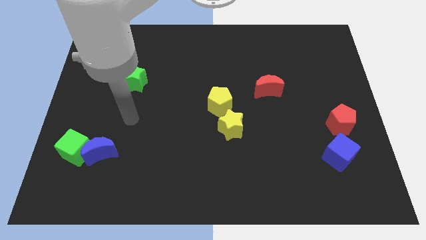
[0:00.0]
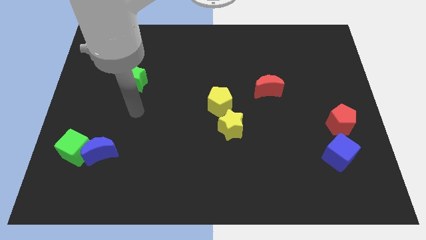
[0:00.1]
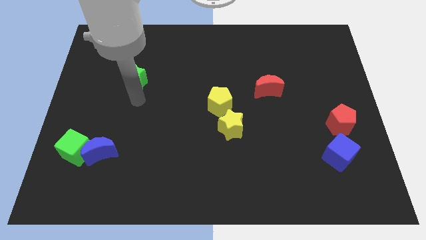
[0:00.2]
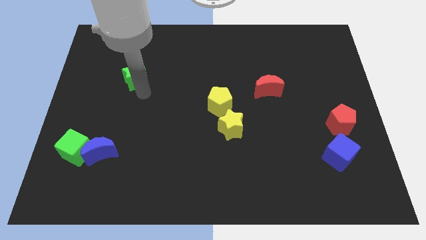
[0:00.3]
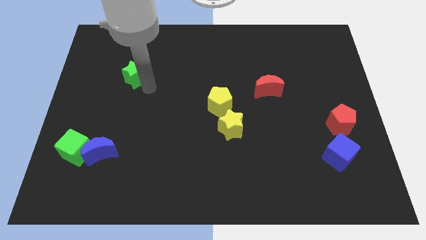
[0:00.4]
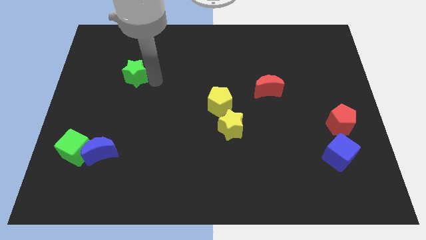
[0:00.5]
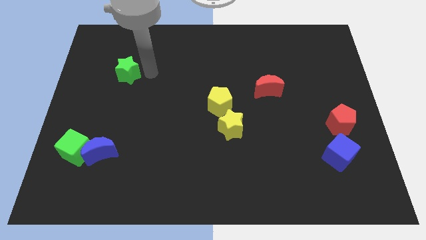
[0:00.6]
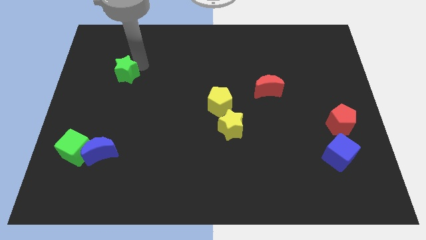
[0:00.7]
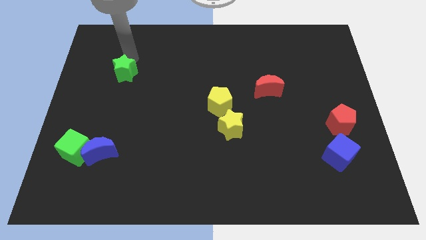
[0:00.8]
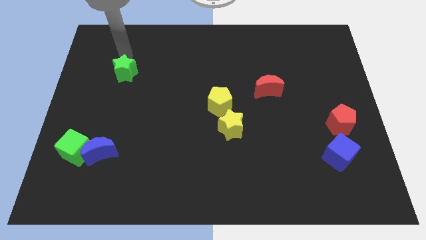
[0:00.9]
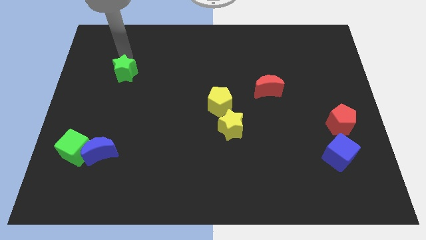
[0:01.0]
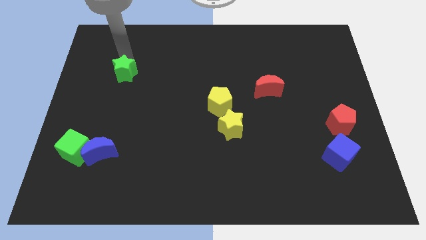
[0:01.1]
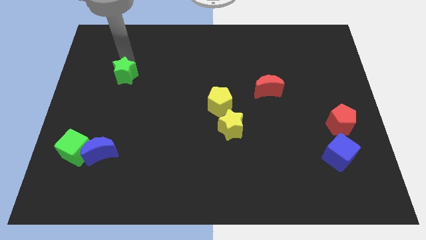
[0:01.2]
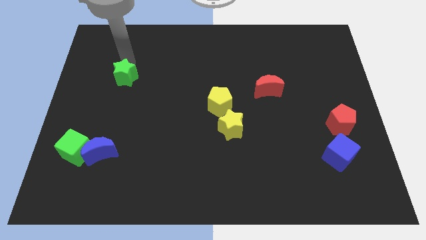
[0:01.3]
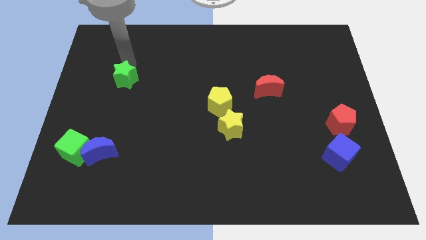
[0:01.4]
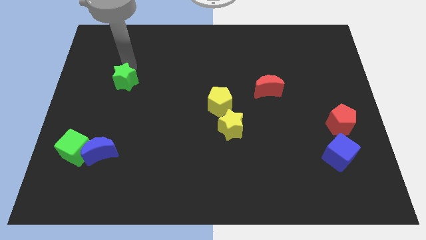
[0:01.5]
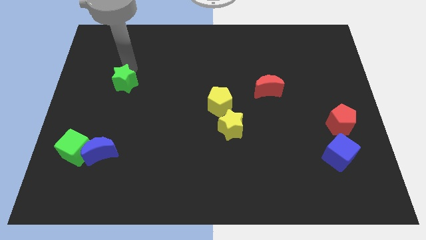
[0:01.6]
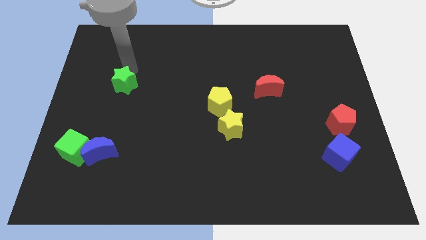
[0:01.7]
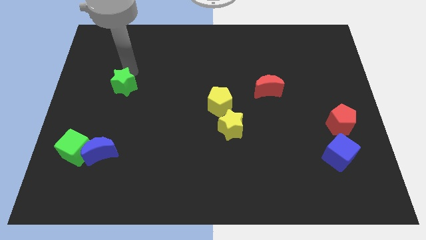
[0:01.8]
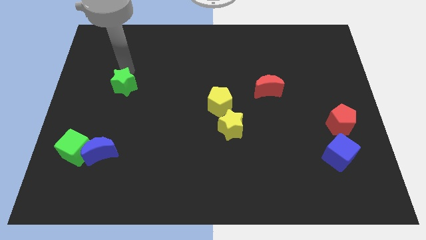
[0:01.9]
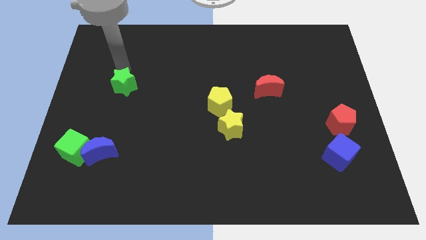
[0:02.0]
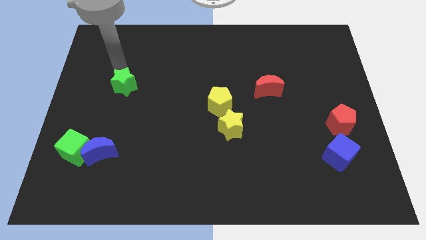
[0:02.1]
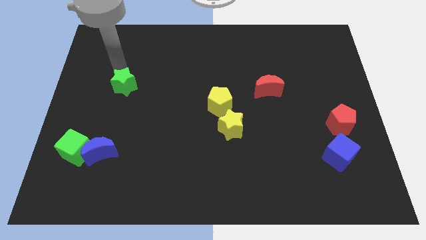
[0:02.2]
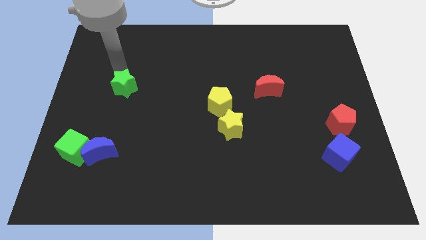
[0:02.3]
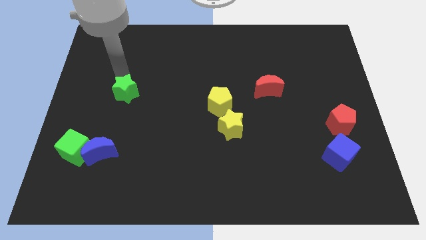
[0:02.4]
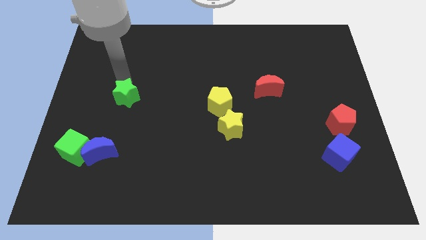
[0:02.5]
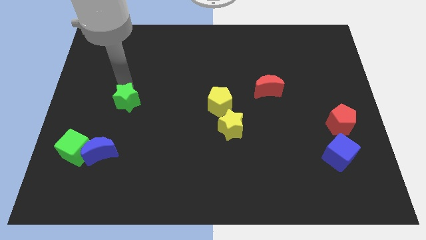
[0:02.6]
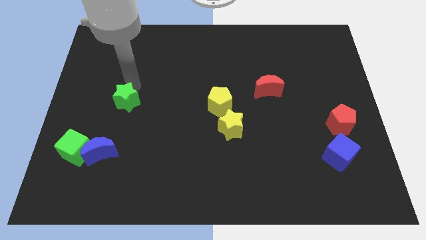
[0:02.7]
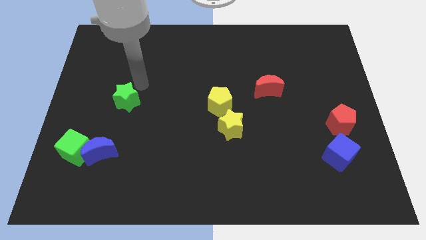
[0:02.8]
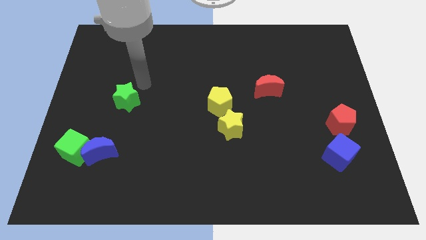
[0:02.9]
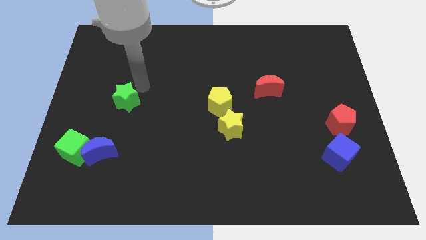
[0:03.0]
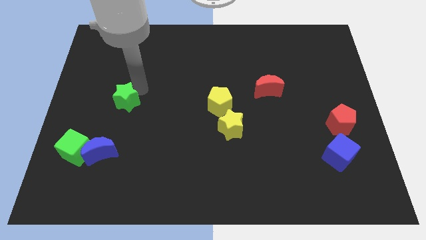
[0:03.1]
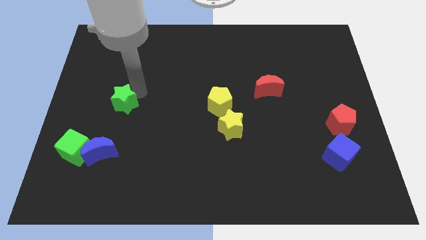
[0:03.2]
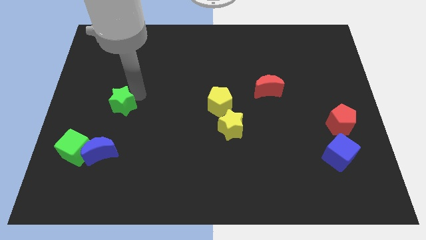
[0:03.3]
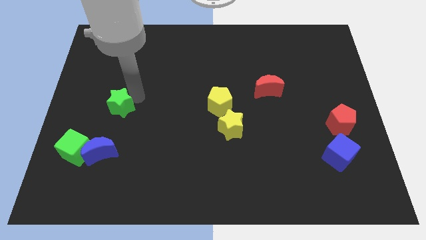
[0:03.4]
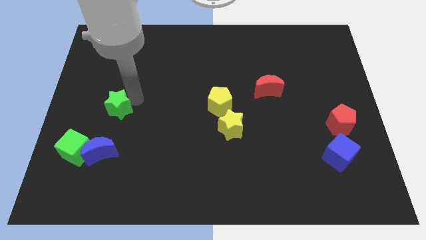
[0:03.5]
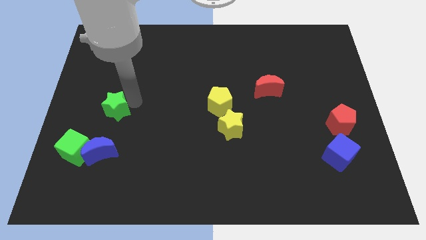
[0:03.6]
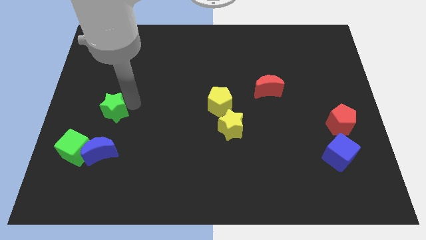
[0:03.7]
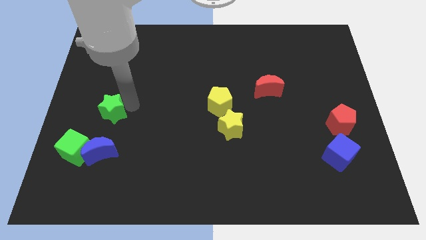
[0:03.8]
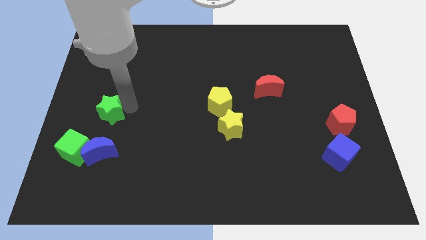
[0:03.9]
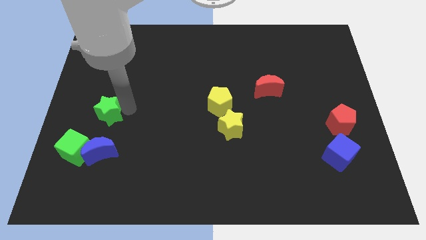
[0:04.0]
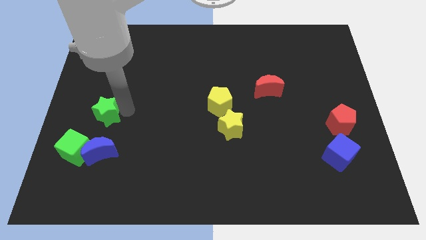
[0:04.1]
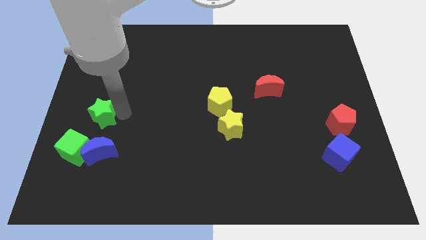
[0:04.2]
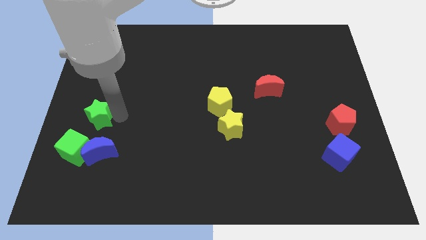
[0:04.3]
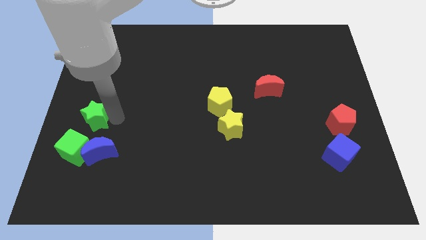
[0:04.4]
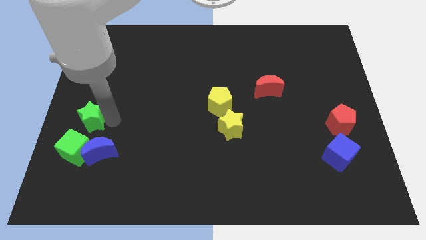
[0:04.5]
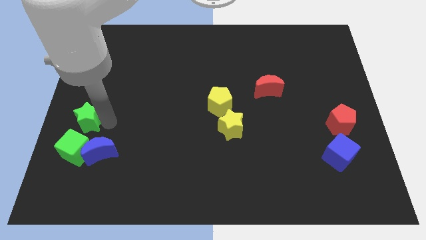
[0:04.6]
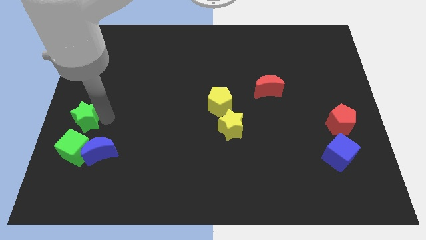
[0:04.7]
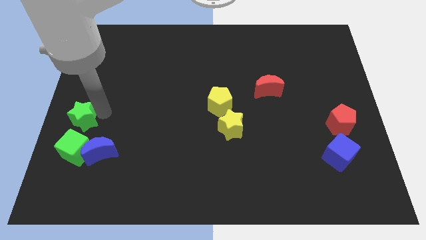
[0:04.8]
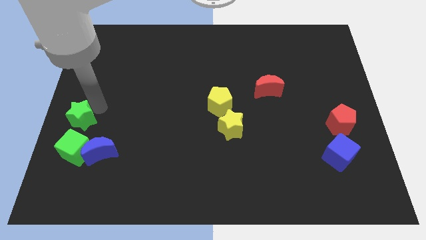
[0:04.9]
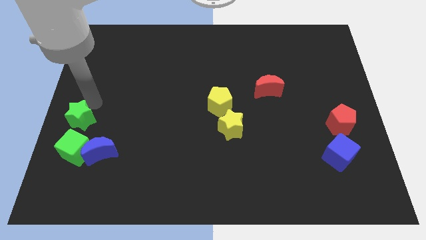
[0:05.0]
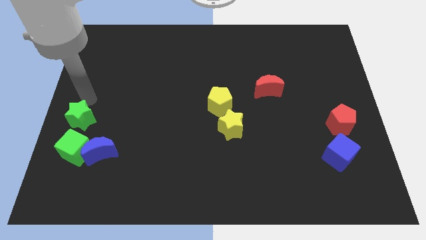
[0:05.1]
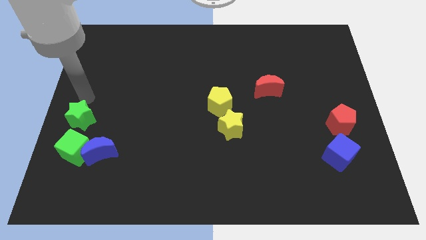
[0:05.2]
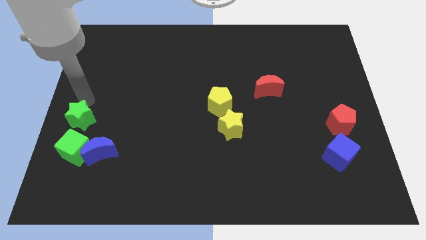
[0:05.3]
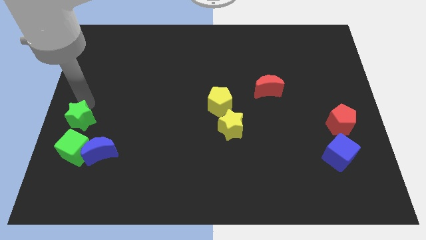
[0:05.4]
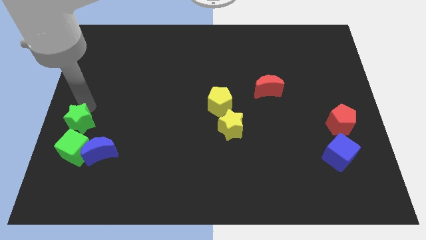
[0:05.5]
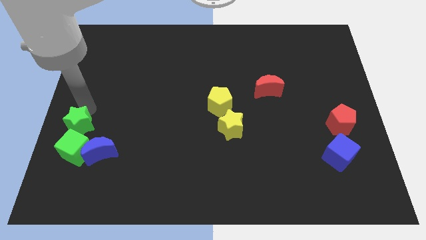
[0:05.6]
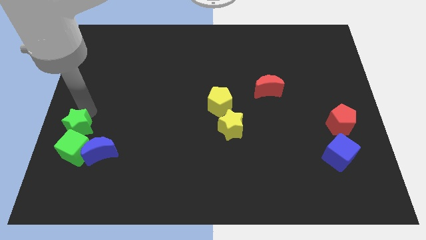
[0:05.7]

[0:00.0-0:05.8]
put the green star to the green cube

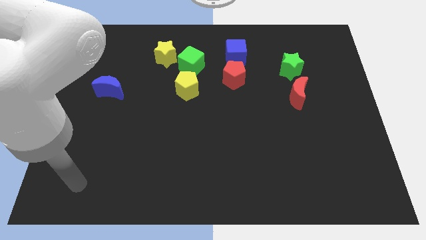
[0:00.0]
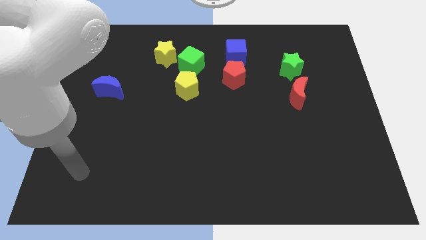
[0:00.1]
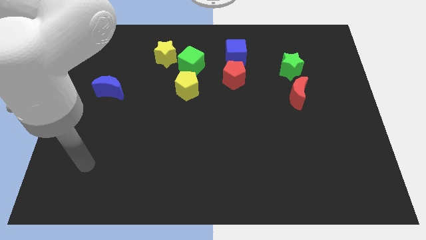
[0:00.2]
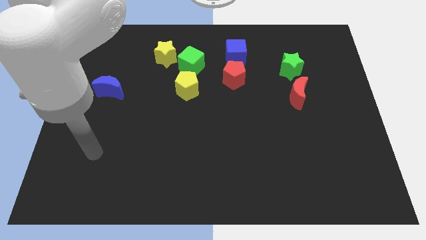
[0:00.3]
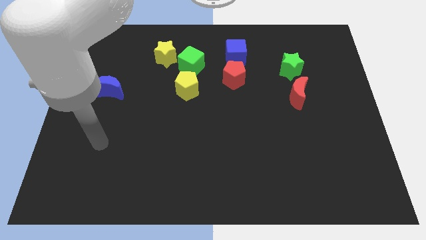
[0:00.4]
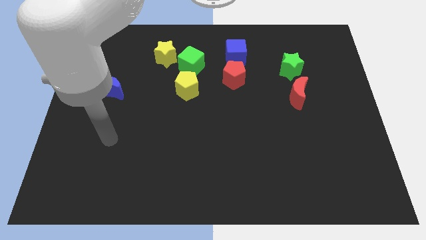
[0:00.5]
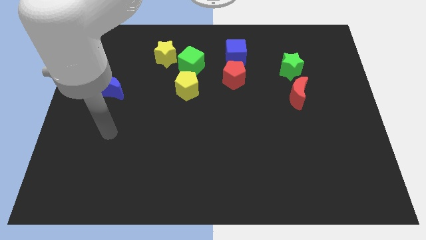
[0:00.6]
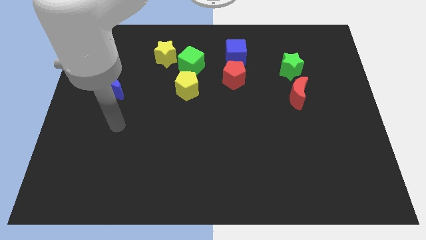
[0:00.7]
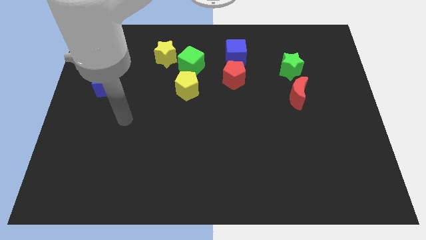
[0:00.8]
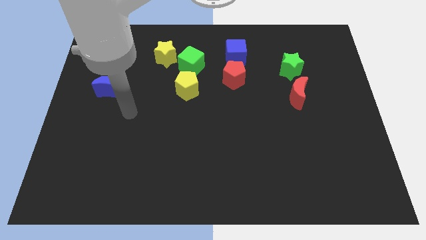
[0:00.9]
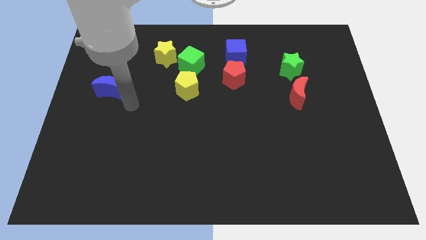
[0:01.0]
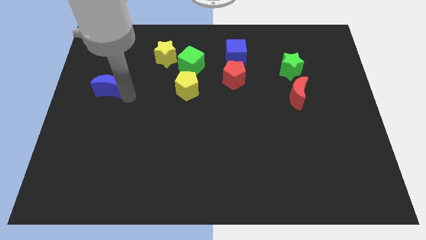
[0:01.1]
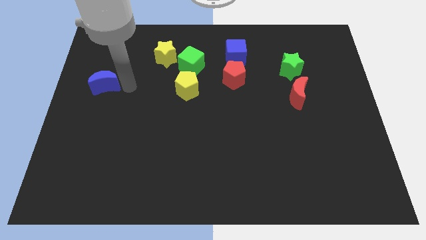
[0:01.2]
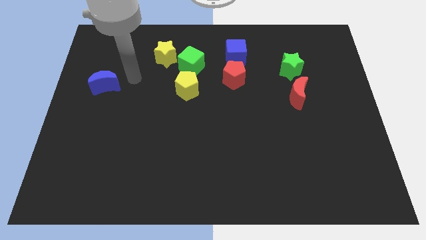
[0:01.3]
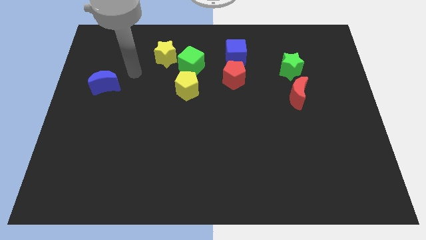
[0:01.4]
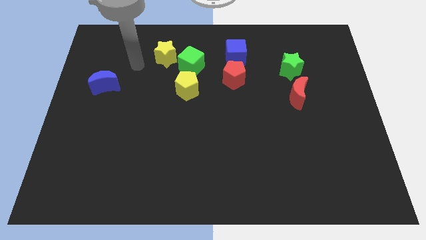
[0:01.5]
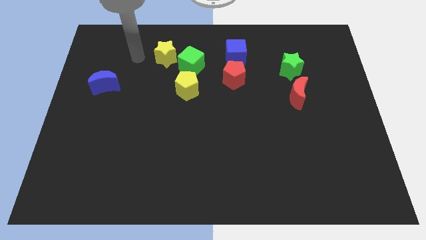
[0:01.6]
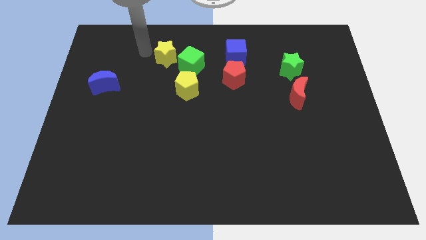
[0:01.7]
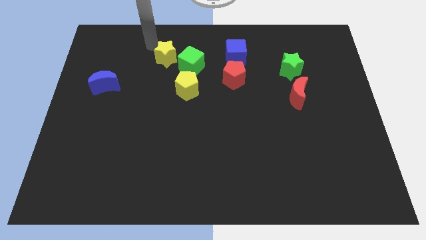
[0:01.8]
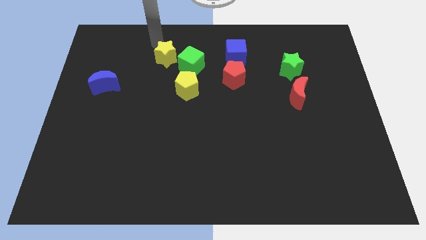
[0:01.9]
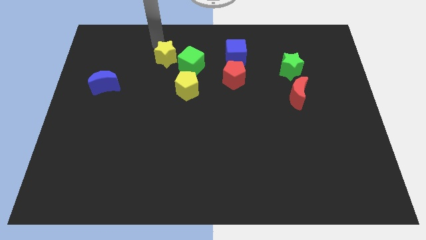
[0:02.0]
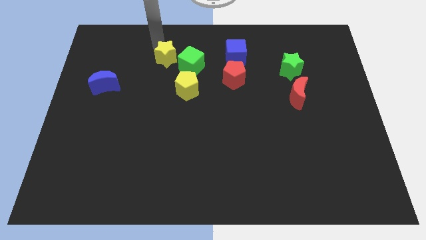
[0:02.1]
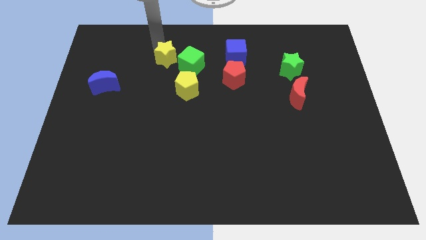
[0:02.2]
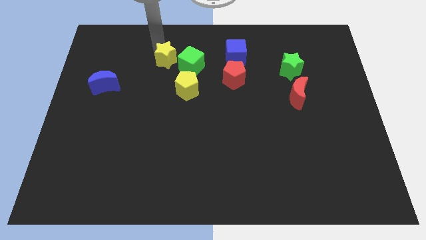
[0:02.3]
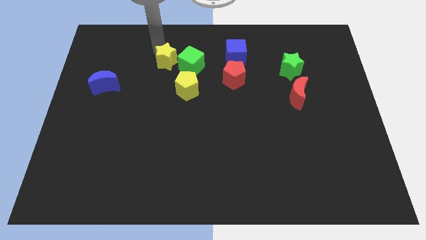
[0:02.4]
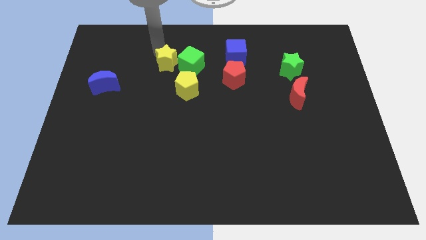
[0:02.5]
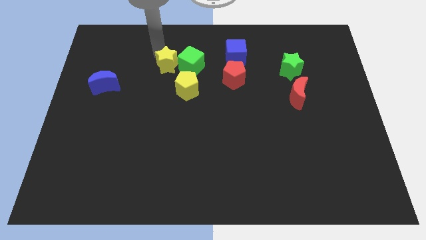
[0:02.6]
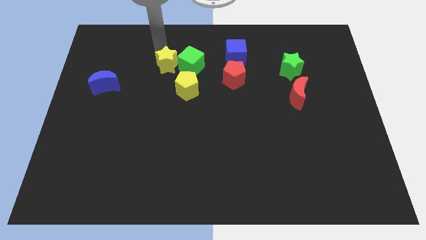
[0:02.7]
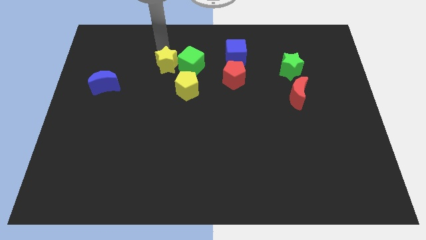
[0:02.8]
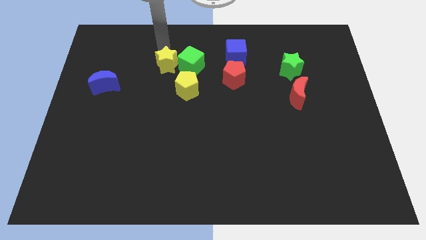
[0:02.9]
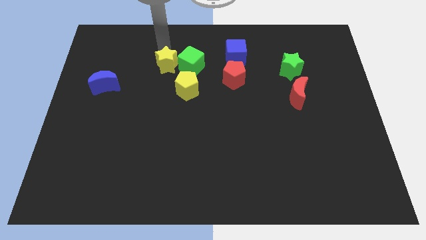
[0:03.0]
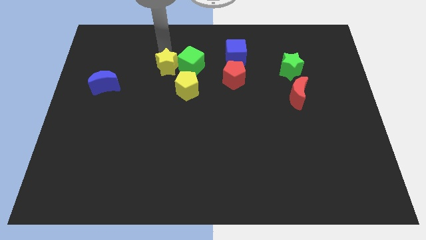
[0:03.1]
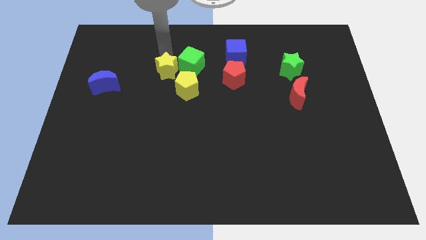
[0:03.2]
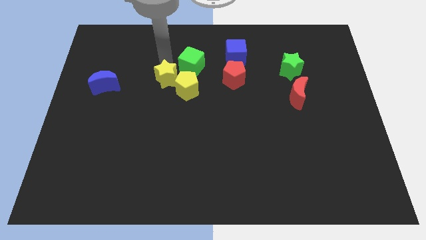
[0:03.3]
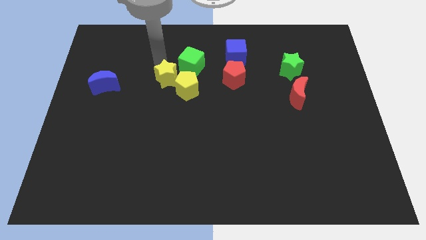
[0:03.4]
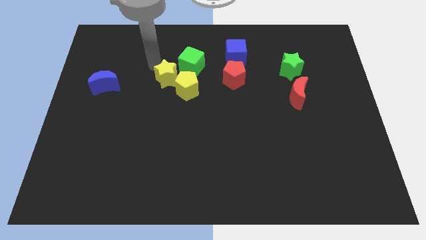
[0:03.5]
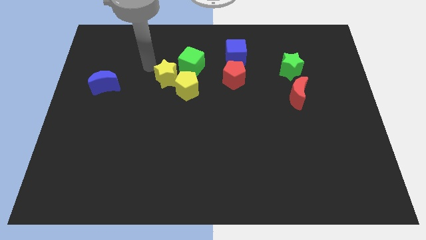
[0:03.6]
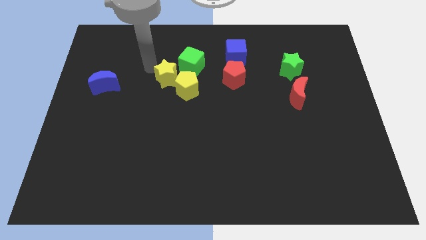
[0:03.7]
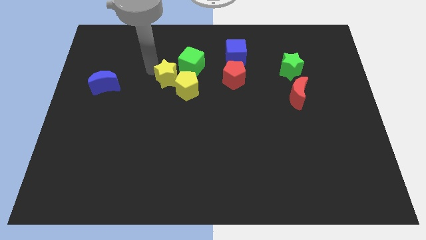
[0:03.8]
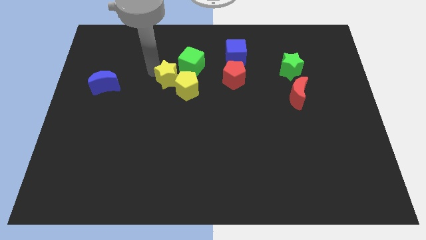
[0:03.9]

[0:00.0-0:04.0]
put the yellow star towards the yellow pentagon
